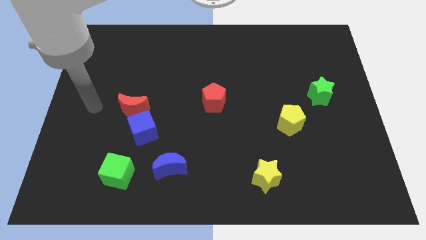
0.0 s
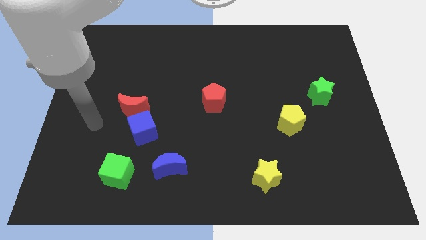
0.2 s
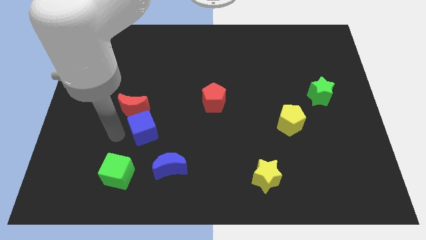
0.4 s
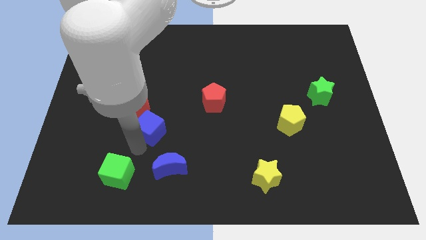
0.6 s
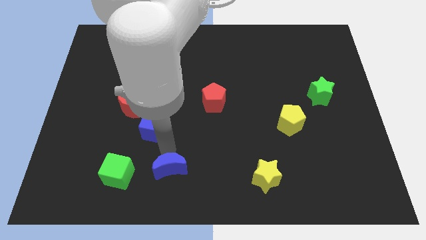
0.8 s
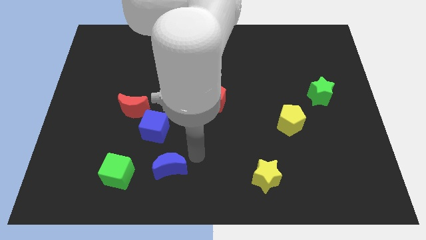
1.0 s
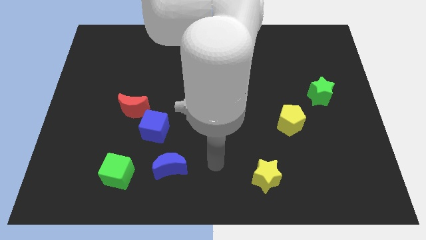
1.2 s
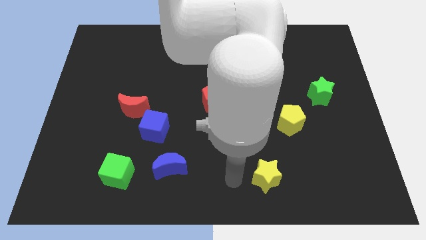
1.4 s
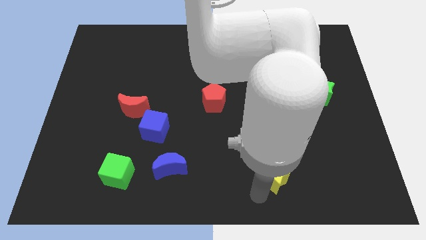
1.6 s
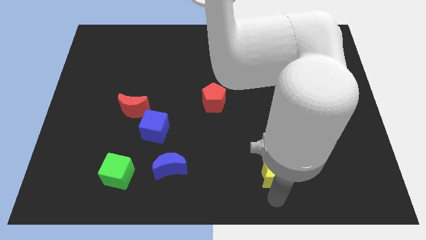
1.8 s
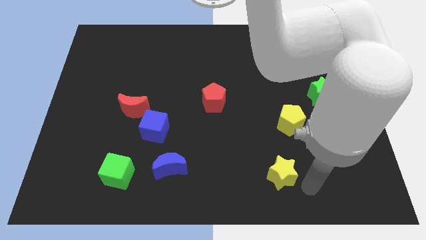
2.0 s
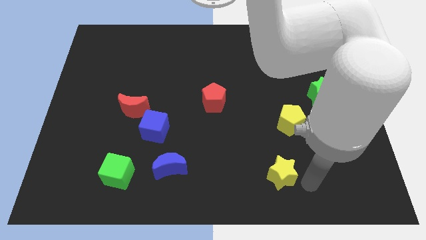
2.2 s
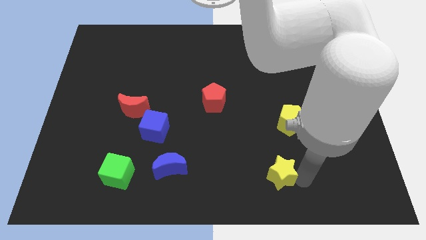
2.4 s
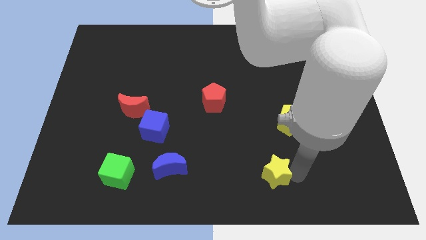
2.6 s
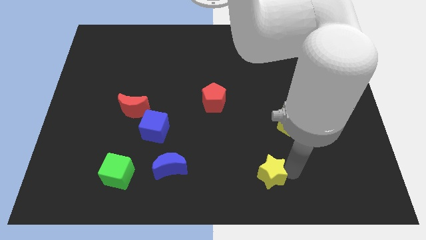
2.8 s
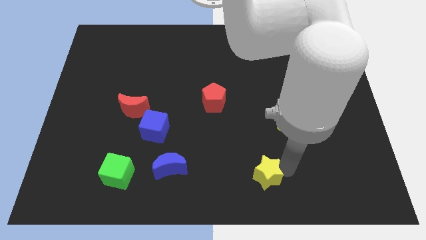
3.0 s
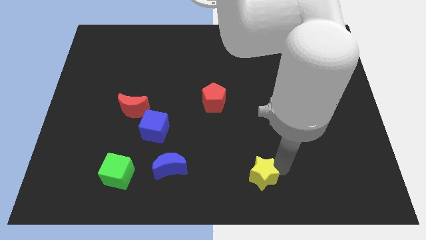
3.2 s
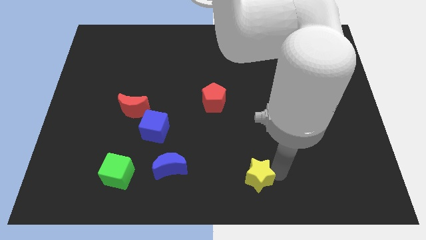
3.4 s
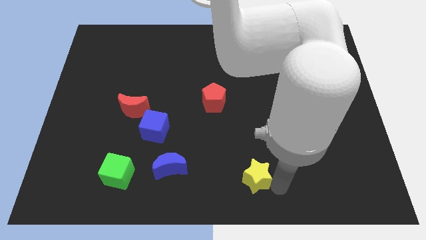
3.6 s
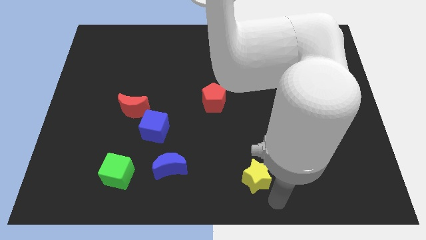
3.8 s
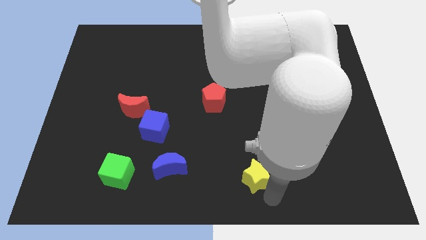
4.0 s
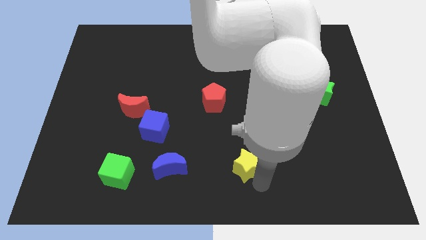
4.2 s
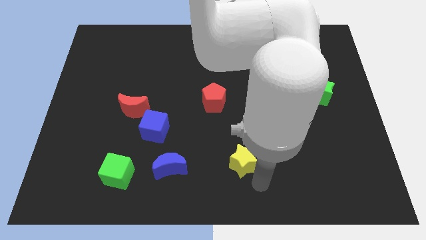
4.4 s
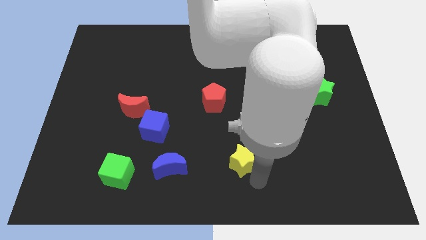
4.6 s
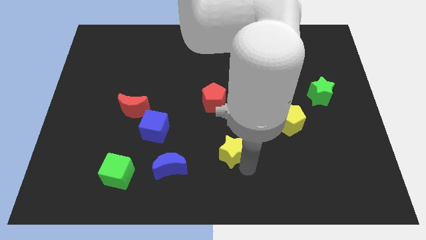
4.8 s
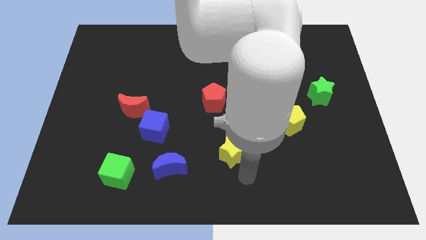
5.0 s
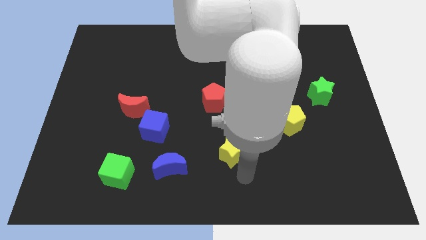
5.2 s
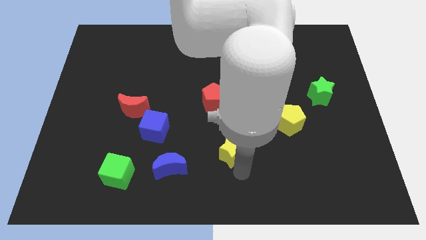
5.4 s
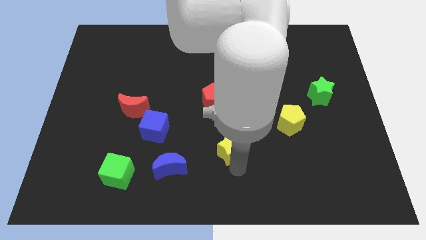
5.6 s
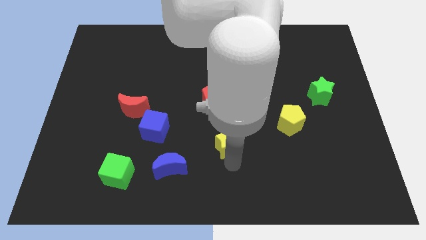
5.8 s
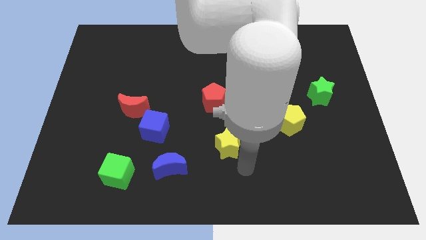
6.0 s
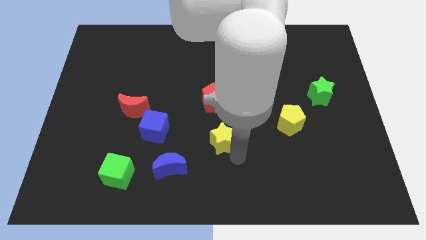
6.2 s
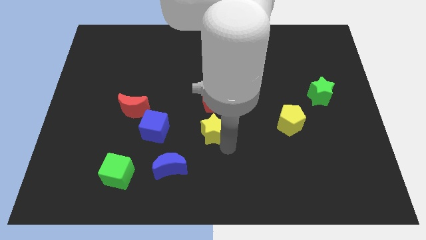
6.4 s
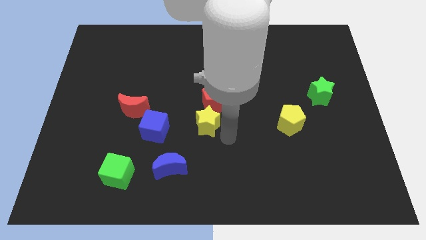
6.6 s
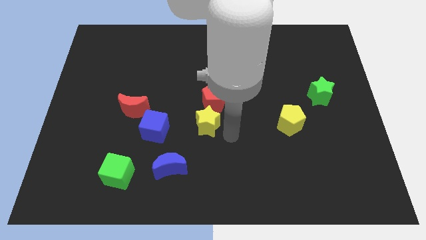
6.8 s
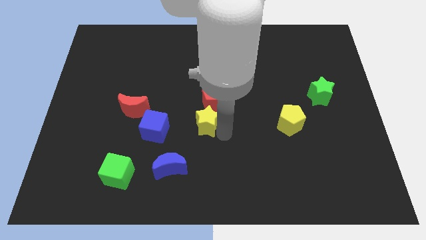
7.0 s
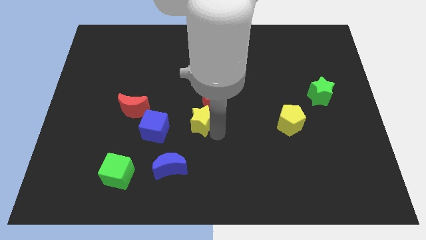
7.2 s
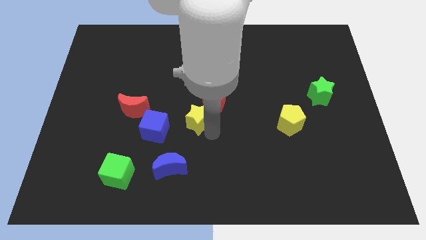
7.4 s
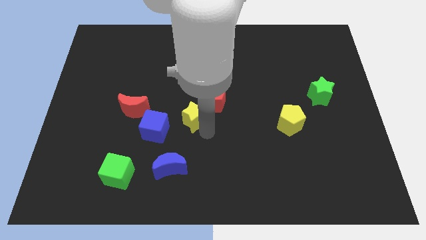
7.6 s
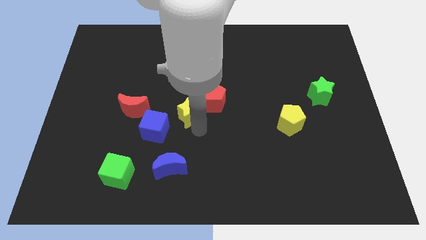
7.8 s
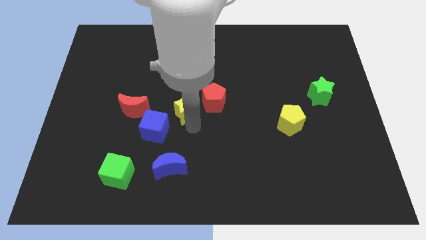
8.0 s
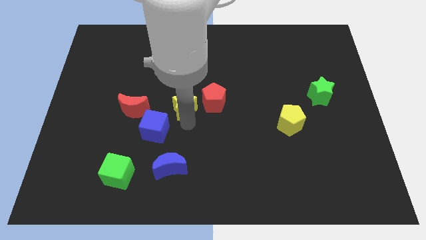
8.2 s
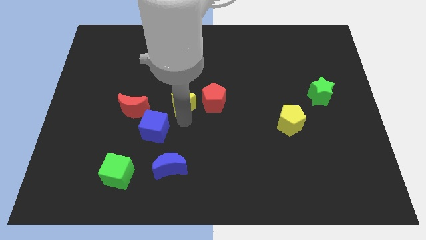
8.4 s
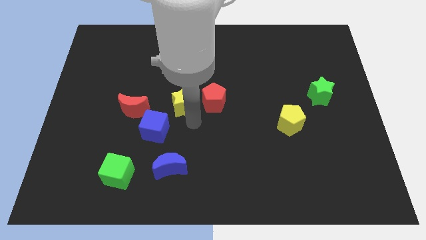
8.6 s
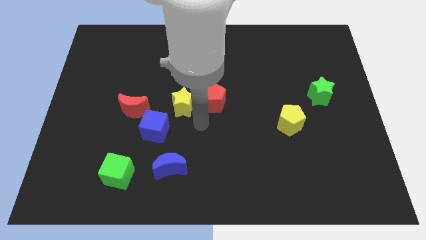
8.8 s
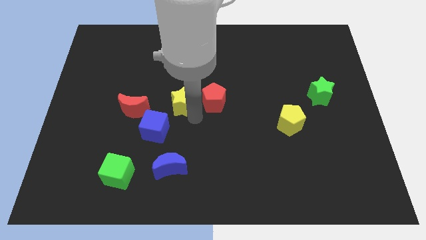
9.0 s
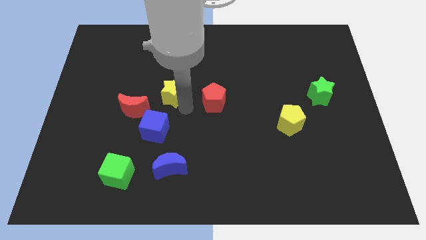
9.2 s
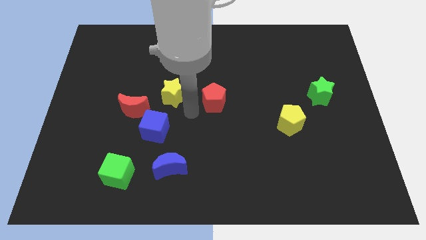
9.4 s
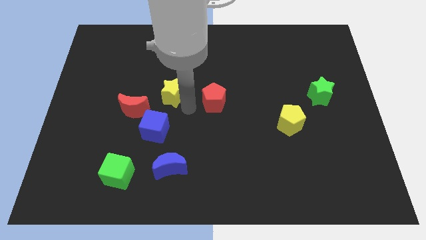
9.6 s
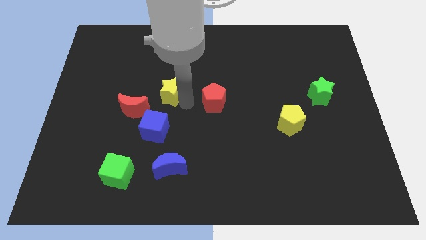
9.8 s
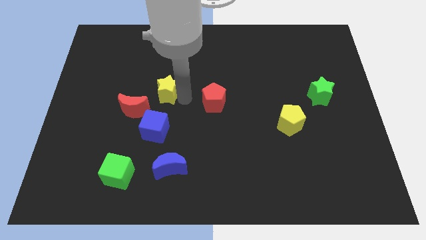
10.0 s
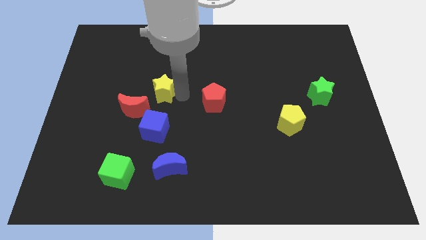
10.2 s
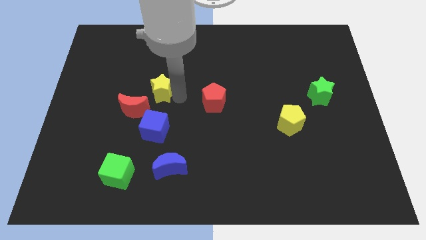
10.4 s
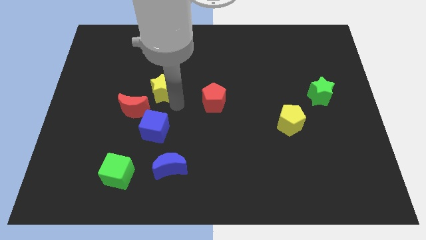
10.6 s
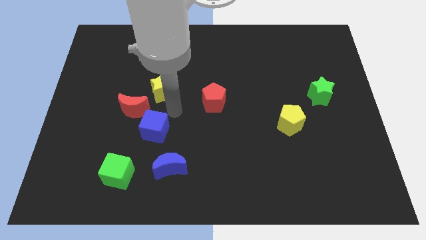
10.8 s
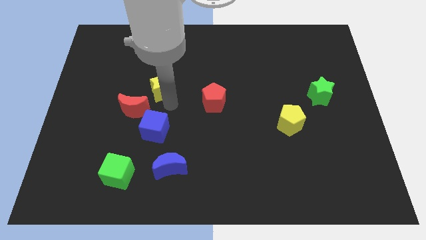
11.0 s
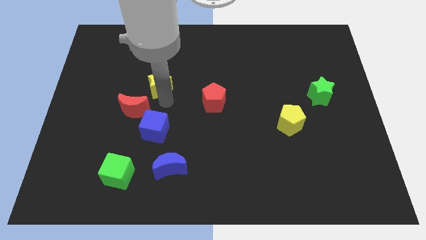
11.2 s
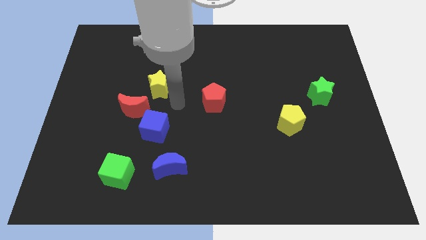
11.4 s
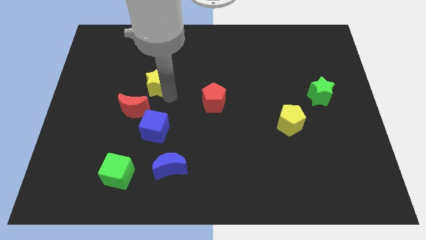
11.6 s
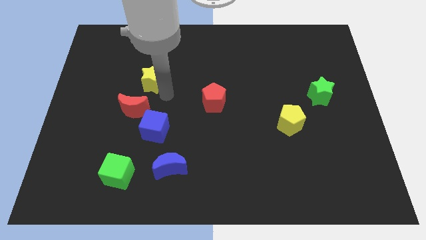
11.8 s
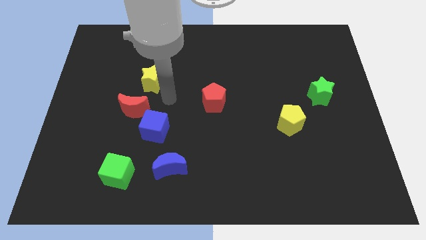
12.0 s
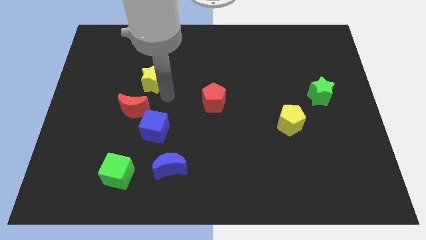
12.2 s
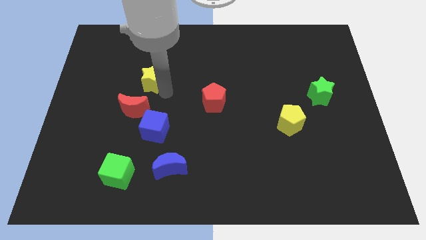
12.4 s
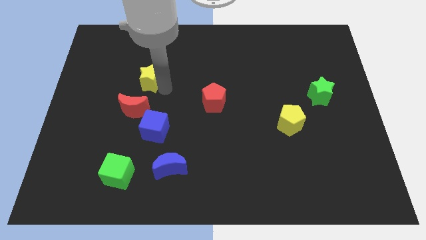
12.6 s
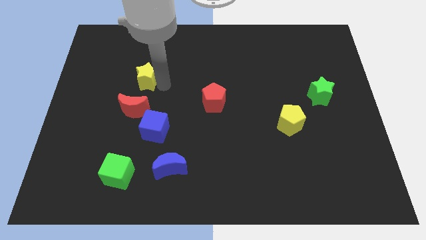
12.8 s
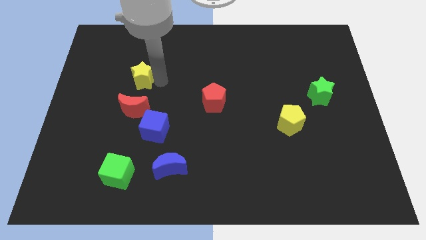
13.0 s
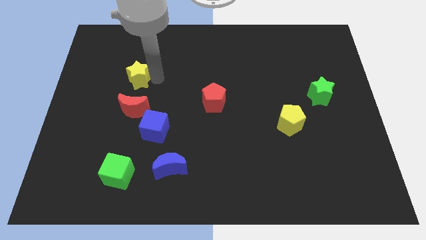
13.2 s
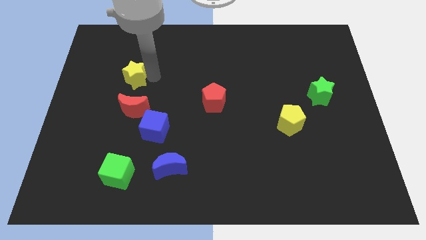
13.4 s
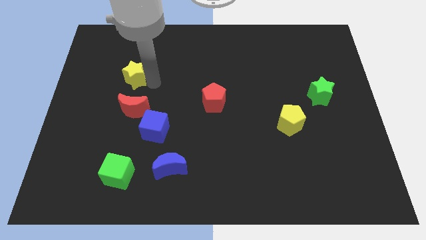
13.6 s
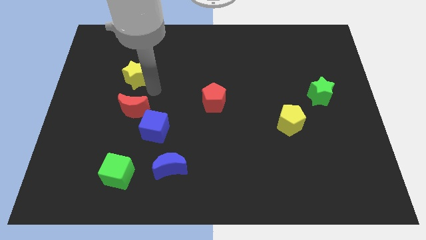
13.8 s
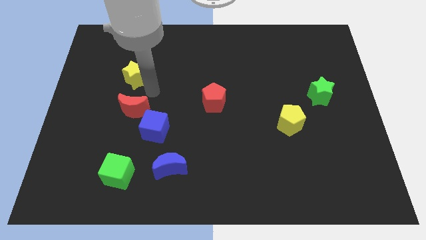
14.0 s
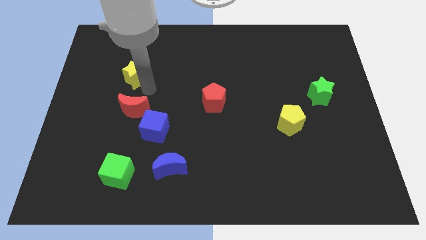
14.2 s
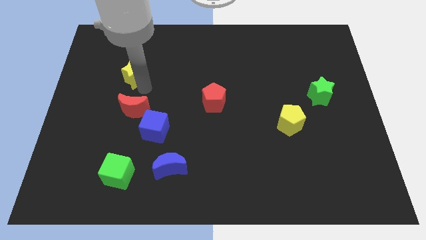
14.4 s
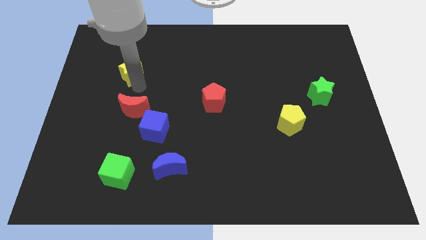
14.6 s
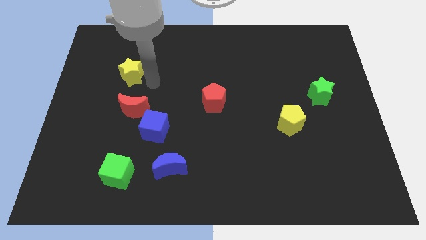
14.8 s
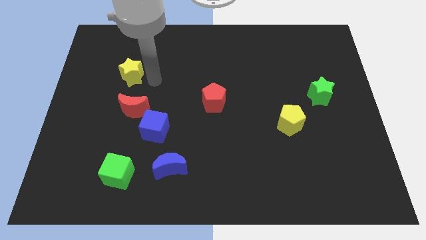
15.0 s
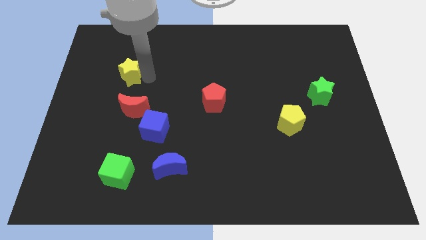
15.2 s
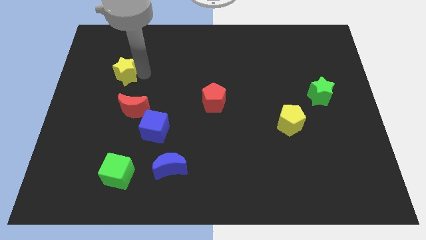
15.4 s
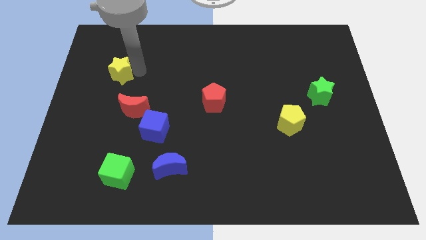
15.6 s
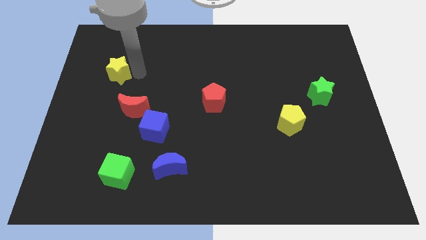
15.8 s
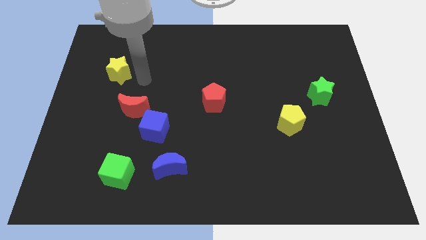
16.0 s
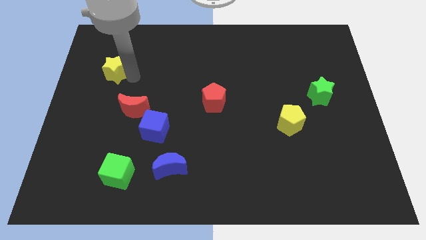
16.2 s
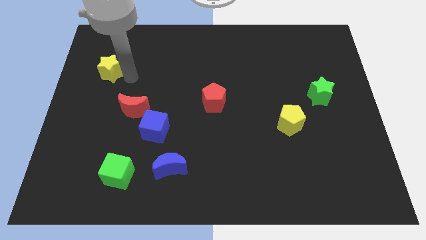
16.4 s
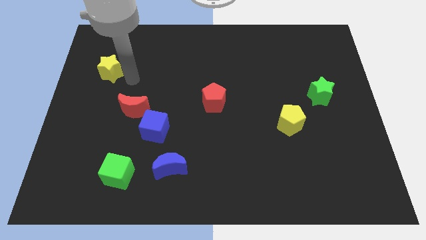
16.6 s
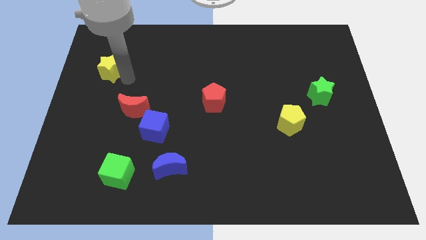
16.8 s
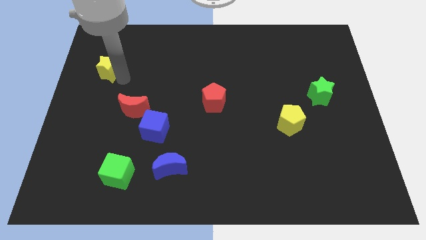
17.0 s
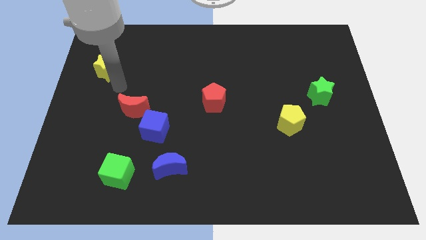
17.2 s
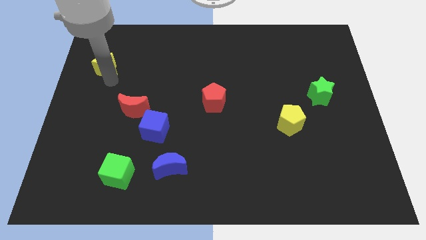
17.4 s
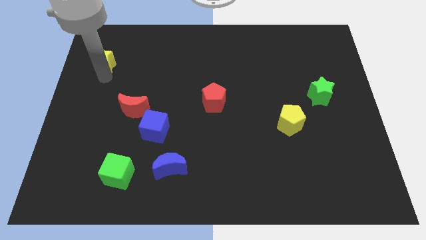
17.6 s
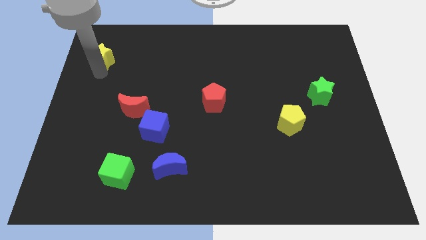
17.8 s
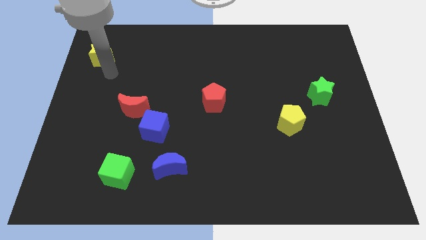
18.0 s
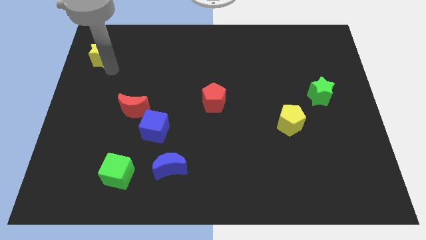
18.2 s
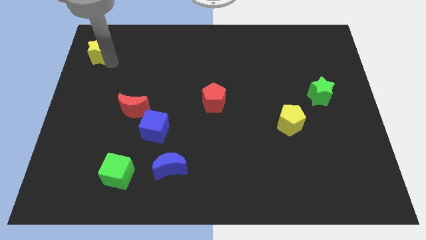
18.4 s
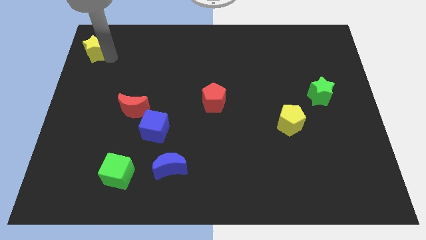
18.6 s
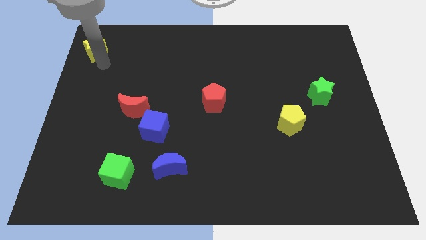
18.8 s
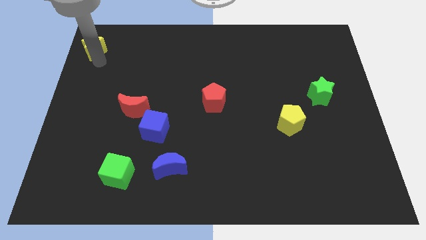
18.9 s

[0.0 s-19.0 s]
push the yellow star to the upper left corner
